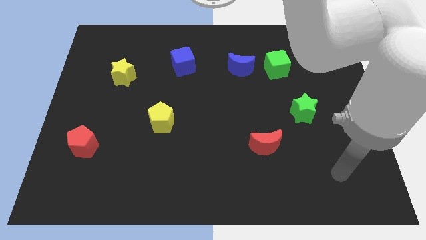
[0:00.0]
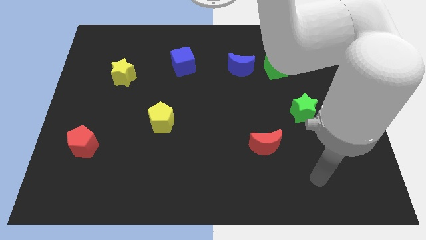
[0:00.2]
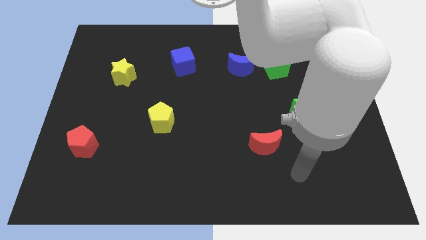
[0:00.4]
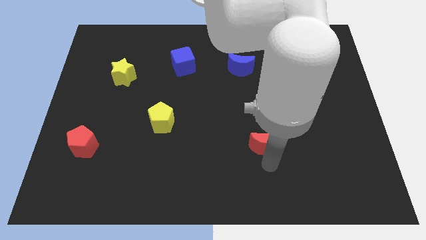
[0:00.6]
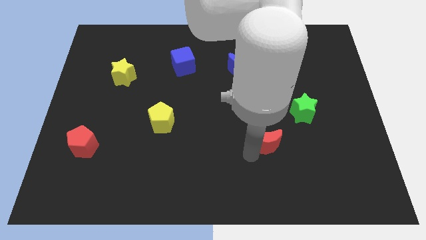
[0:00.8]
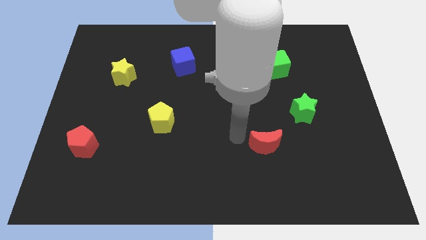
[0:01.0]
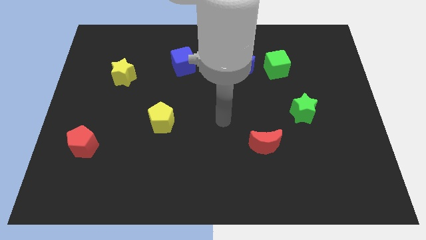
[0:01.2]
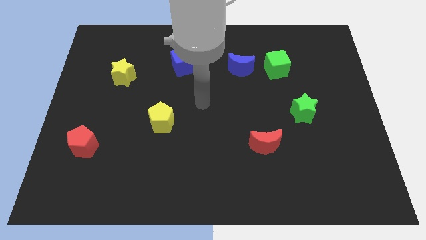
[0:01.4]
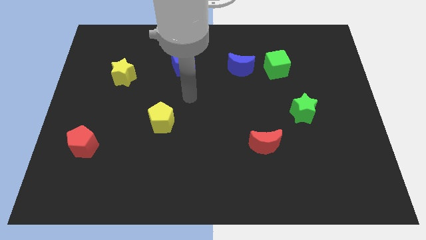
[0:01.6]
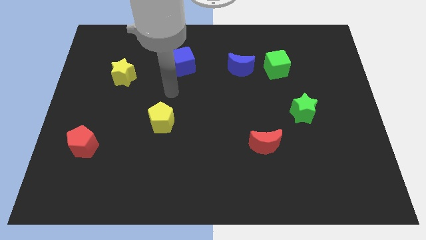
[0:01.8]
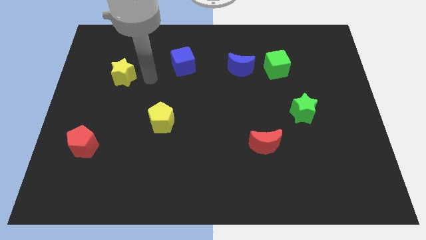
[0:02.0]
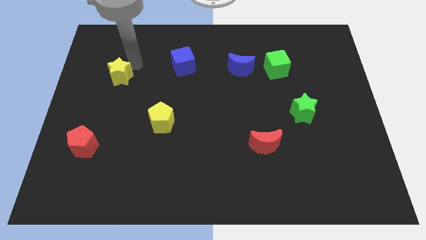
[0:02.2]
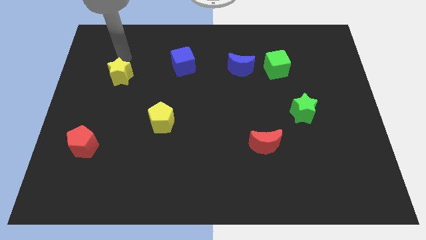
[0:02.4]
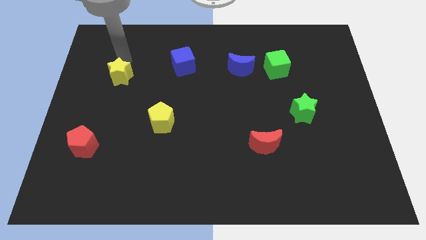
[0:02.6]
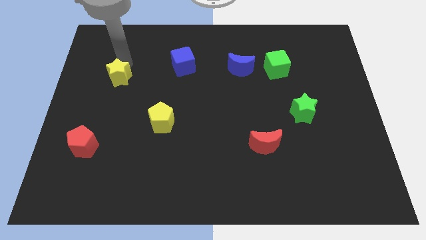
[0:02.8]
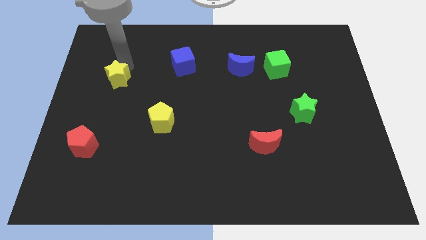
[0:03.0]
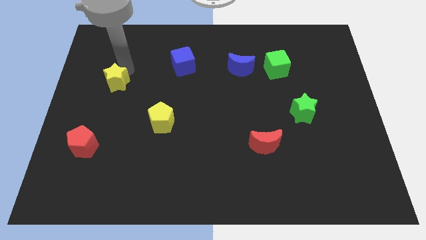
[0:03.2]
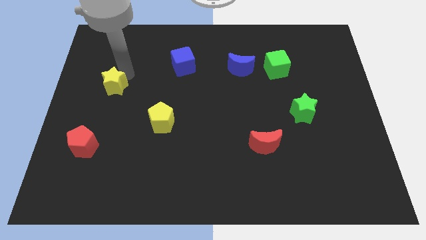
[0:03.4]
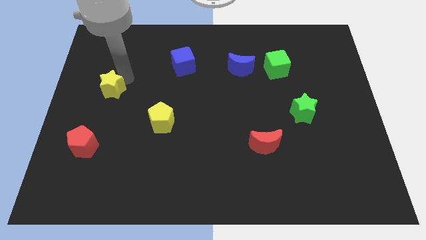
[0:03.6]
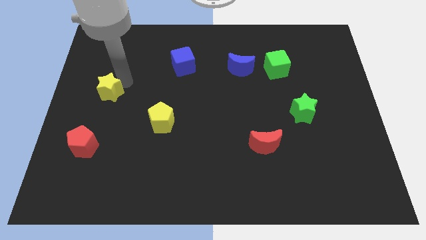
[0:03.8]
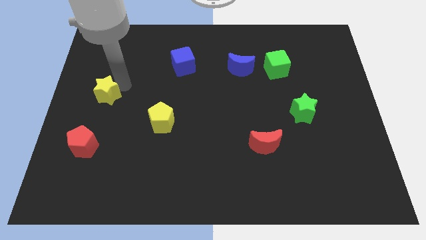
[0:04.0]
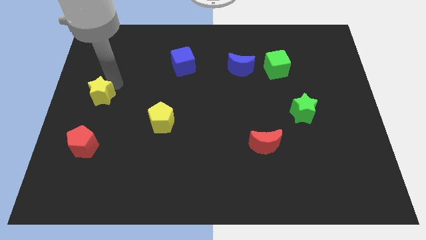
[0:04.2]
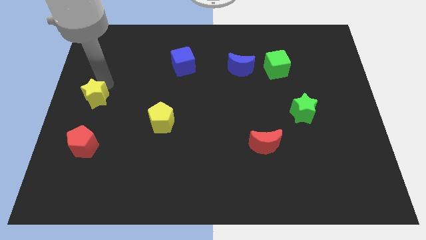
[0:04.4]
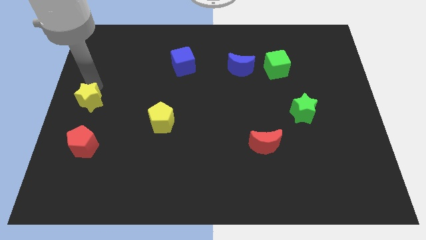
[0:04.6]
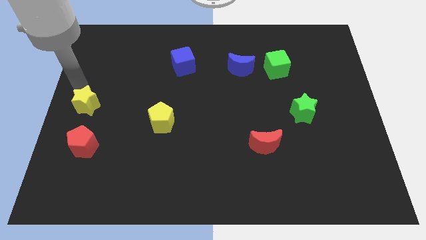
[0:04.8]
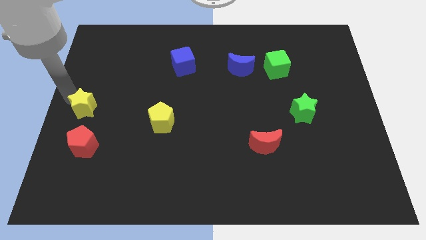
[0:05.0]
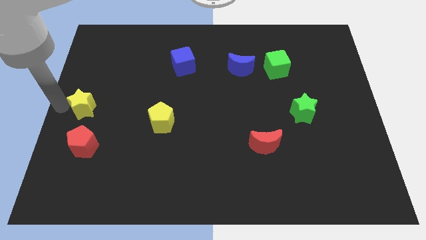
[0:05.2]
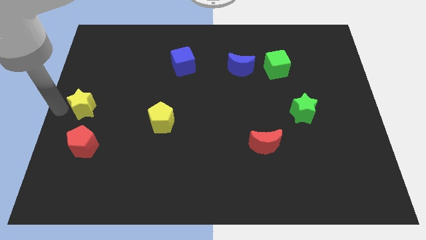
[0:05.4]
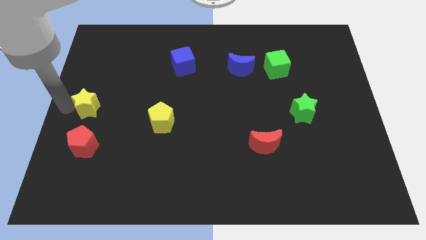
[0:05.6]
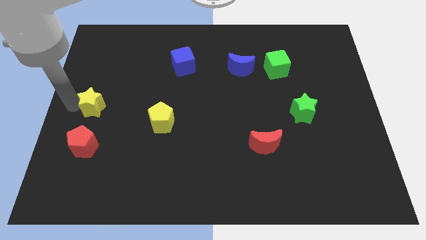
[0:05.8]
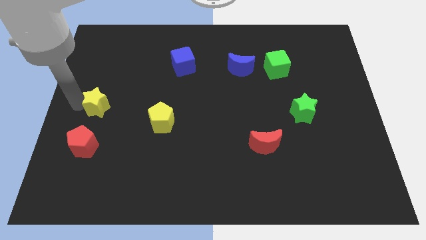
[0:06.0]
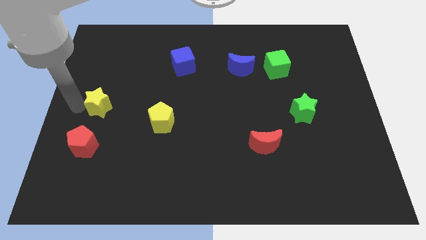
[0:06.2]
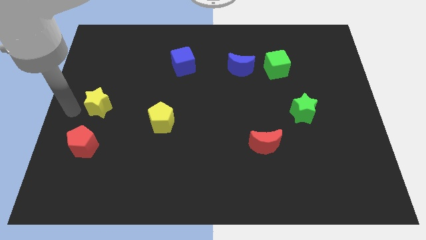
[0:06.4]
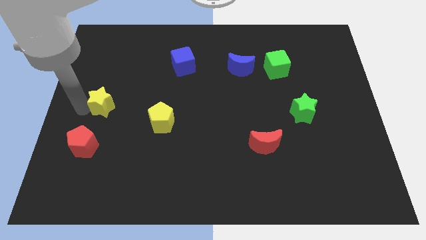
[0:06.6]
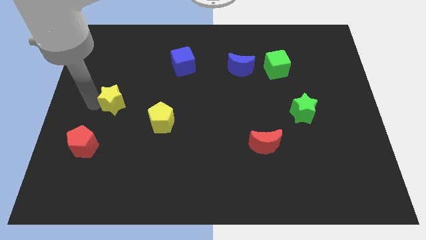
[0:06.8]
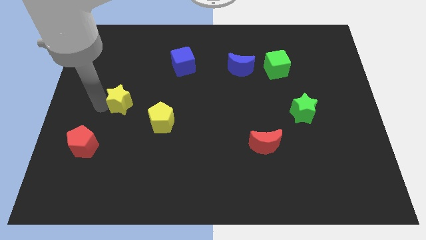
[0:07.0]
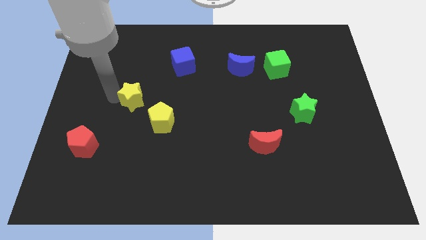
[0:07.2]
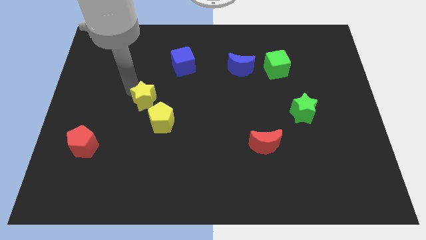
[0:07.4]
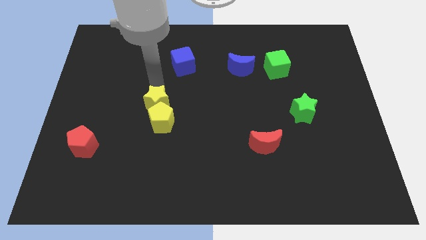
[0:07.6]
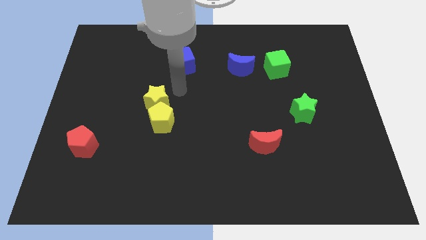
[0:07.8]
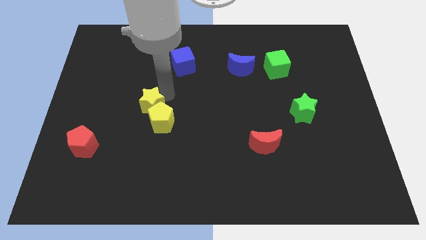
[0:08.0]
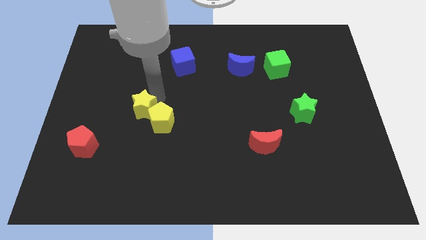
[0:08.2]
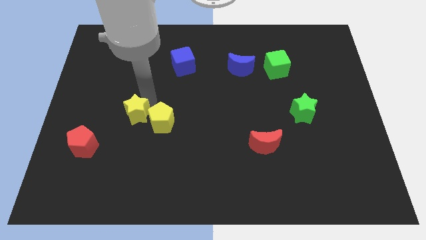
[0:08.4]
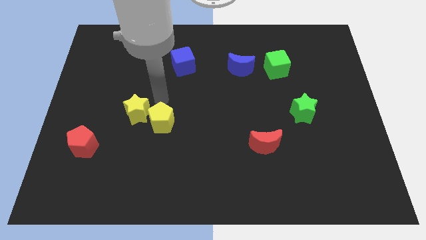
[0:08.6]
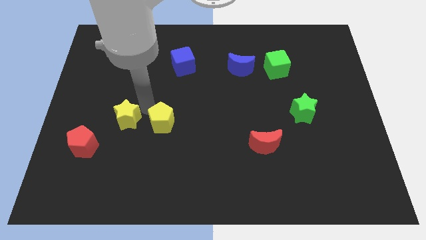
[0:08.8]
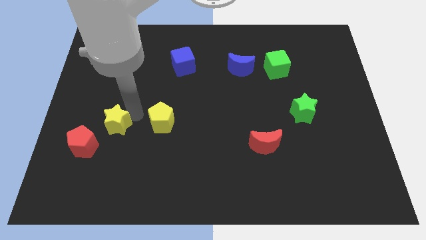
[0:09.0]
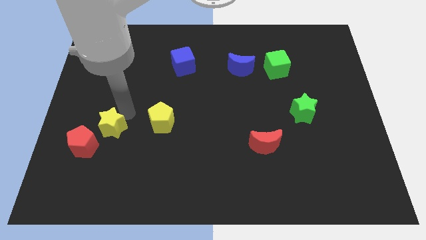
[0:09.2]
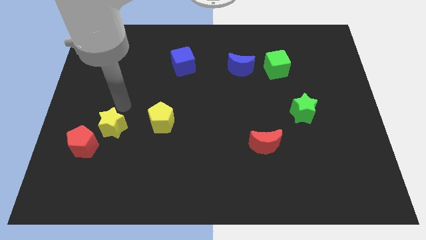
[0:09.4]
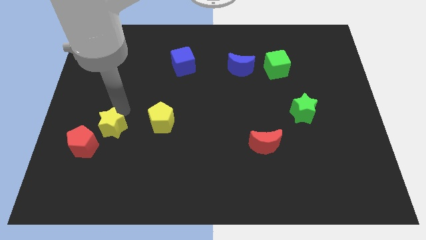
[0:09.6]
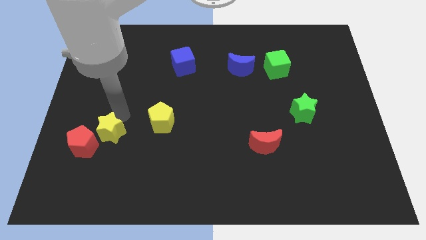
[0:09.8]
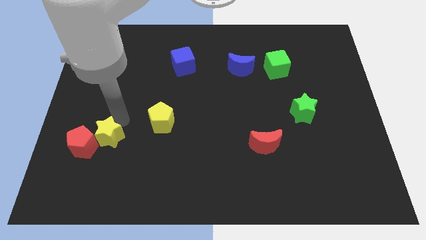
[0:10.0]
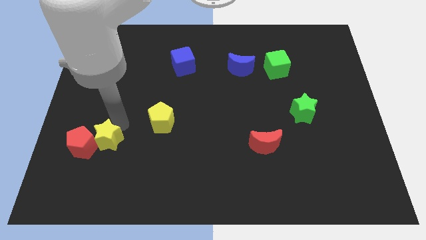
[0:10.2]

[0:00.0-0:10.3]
move the yellow star diagonally down and to the right of the red pentagon

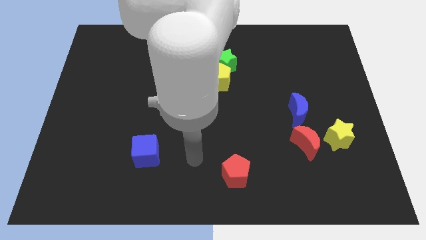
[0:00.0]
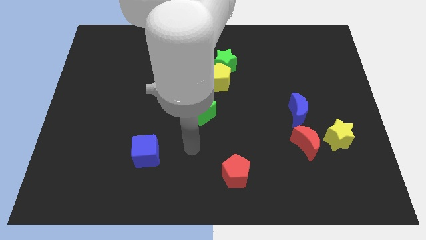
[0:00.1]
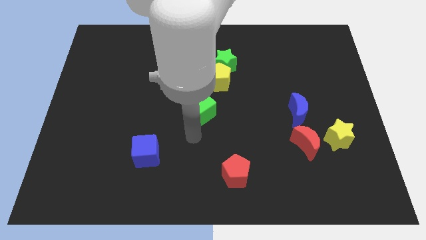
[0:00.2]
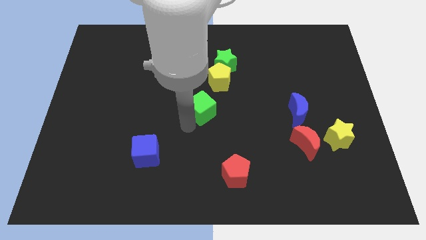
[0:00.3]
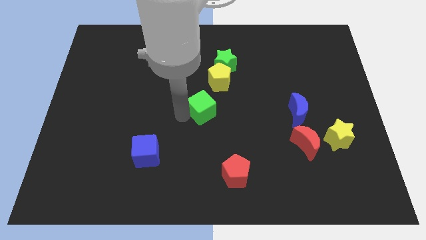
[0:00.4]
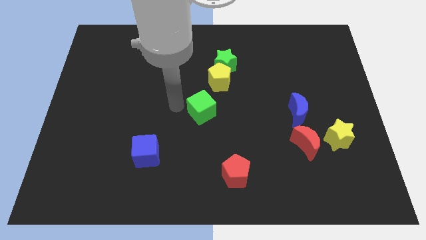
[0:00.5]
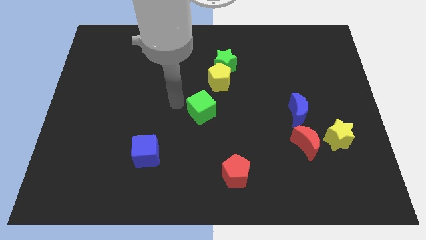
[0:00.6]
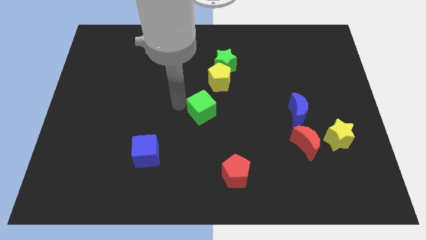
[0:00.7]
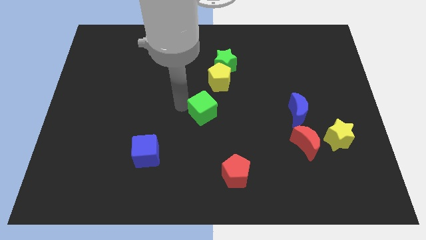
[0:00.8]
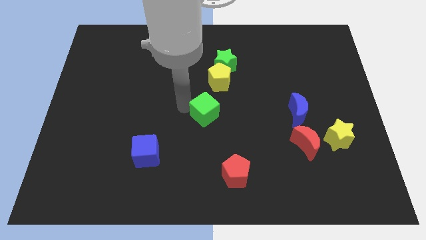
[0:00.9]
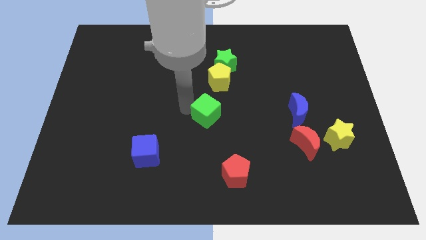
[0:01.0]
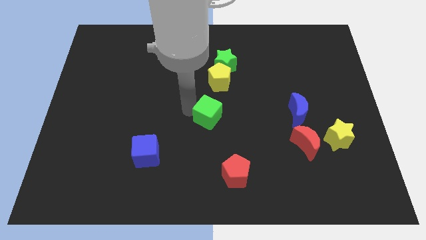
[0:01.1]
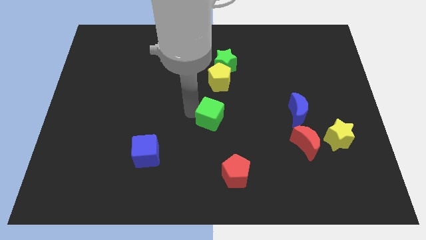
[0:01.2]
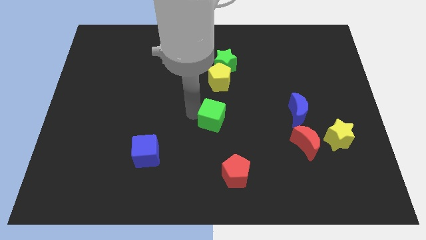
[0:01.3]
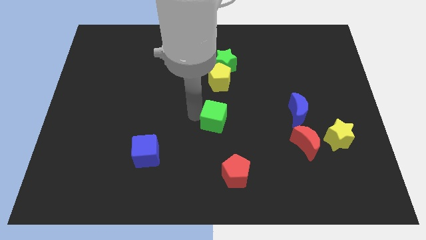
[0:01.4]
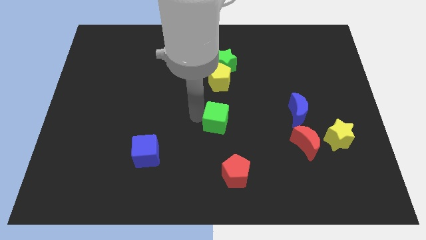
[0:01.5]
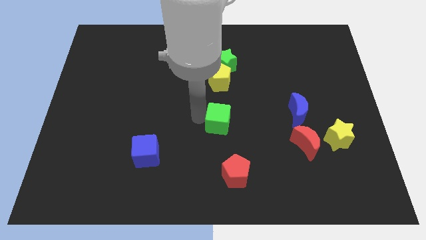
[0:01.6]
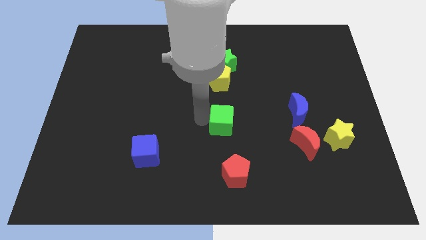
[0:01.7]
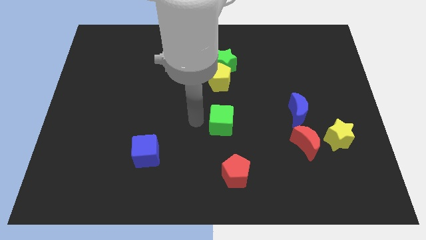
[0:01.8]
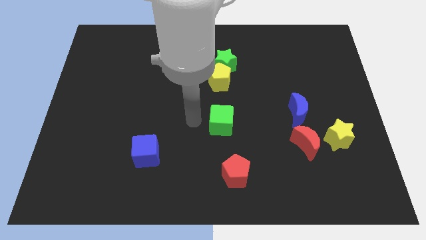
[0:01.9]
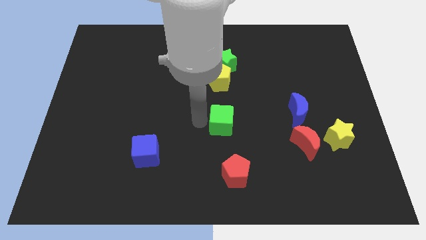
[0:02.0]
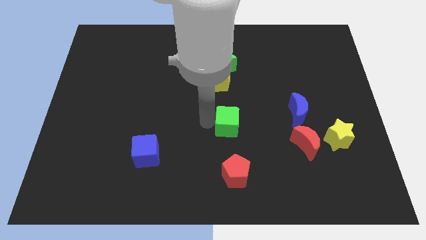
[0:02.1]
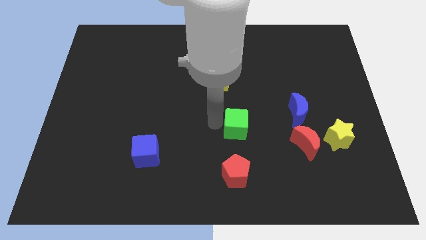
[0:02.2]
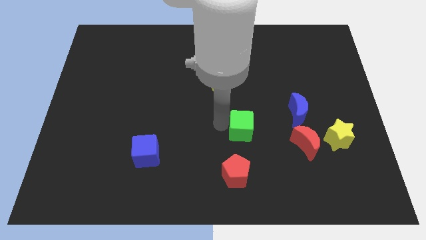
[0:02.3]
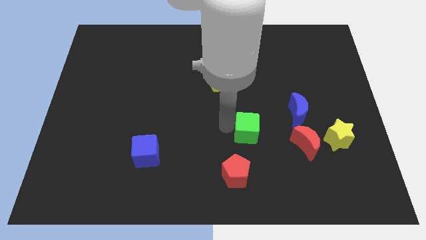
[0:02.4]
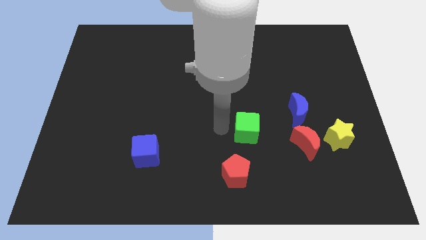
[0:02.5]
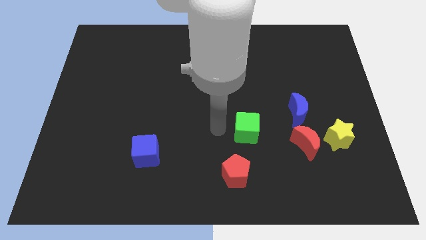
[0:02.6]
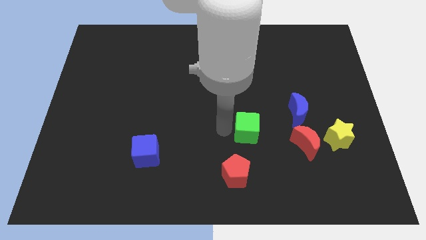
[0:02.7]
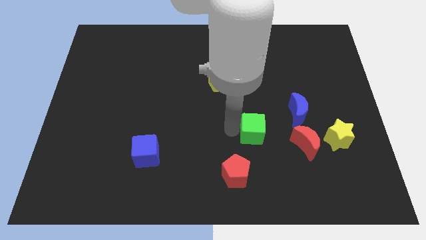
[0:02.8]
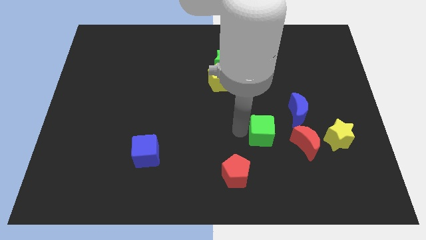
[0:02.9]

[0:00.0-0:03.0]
put the green cube diagonally down and to the left of the blue moon
